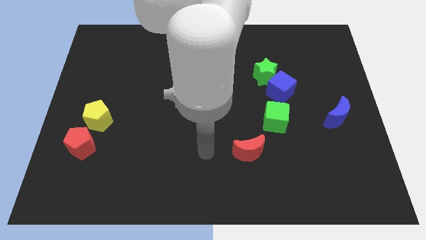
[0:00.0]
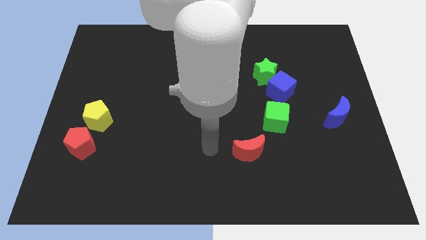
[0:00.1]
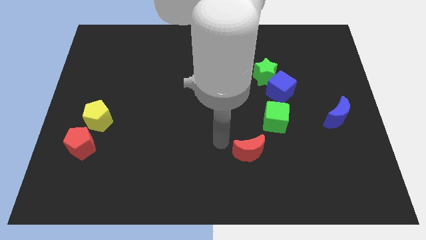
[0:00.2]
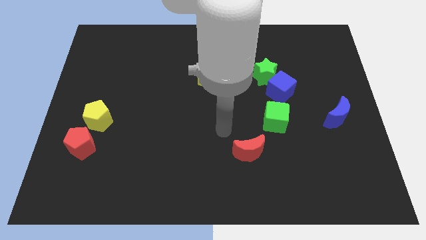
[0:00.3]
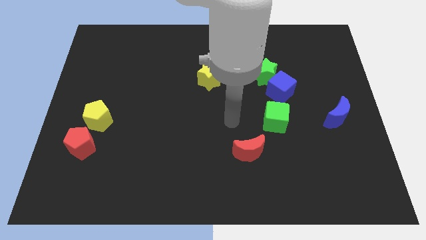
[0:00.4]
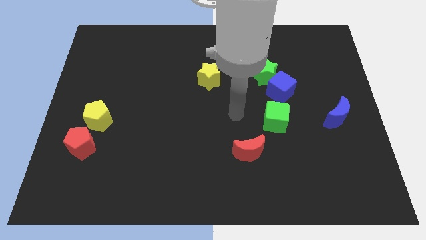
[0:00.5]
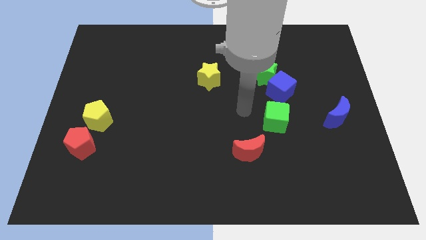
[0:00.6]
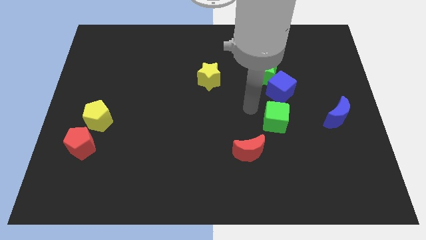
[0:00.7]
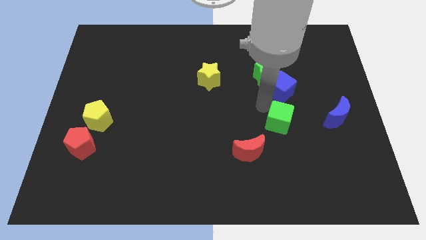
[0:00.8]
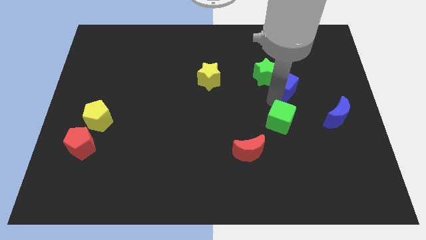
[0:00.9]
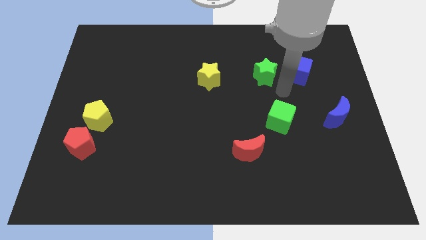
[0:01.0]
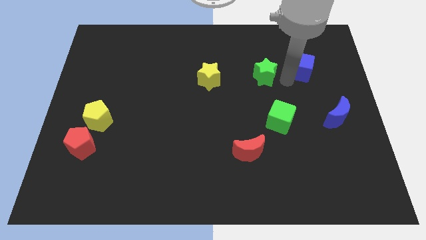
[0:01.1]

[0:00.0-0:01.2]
pull the green star apart from the blue cube

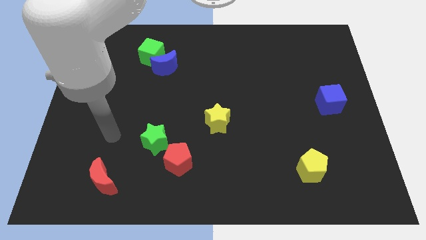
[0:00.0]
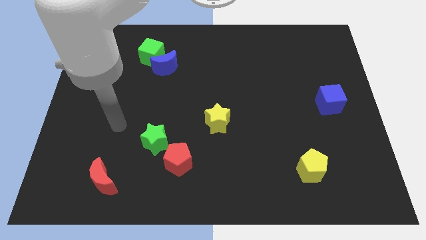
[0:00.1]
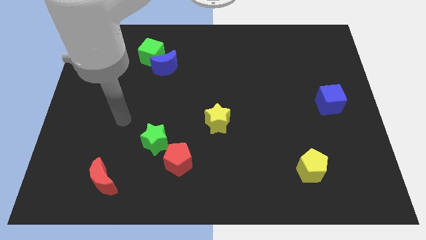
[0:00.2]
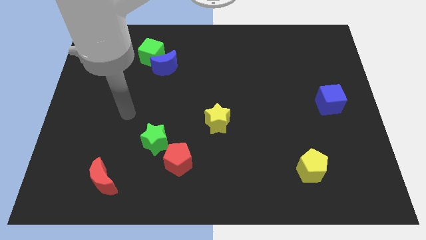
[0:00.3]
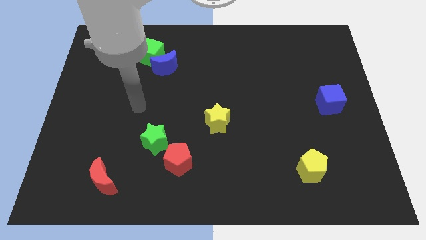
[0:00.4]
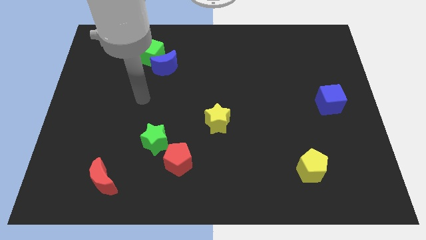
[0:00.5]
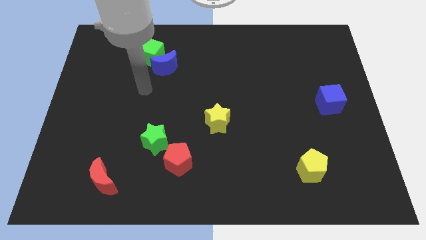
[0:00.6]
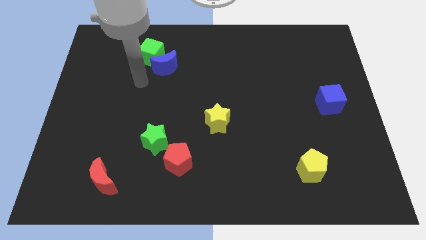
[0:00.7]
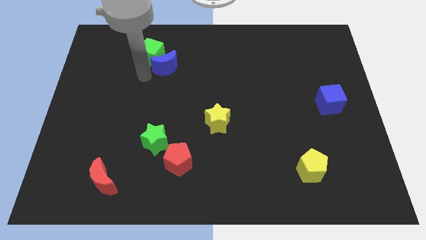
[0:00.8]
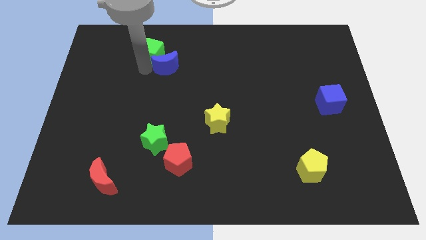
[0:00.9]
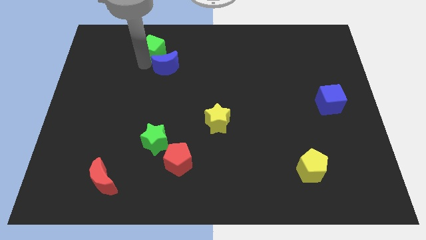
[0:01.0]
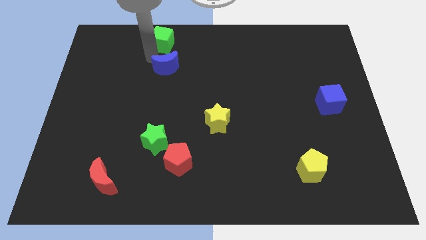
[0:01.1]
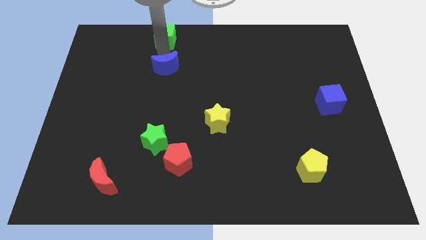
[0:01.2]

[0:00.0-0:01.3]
pull the blue moon apart from the green cube

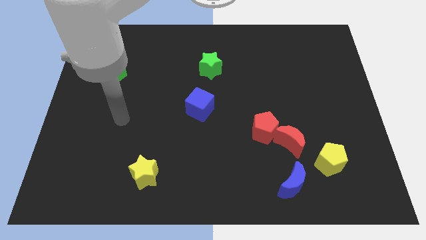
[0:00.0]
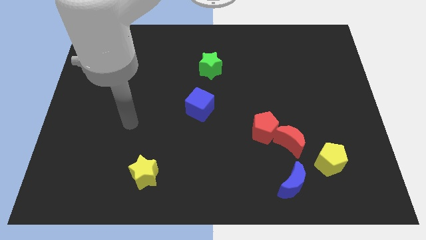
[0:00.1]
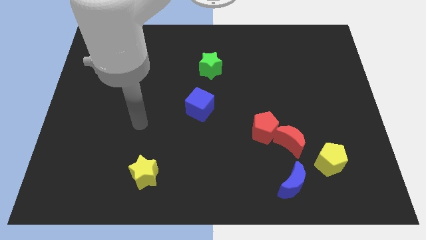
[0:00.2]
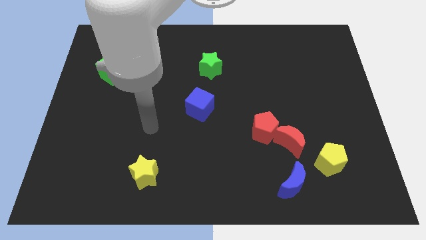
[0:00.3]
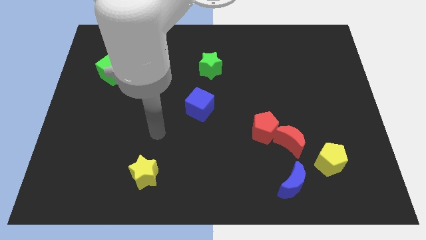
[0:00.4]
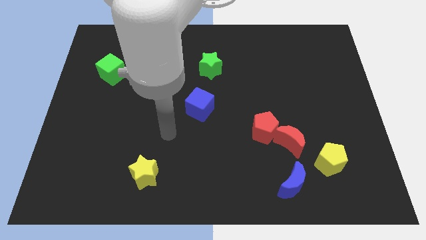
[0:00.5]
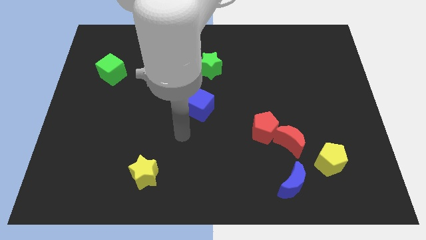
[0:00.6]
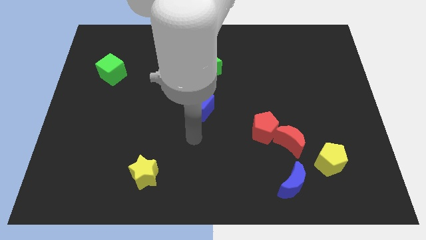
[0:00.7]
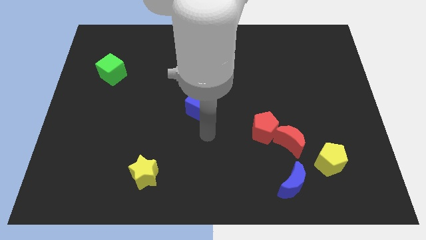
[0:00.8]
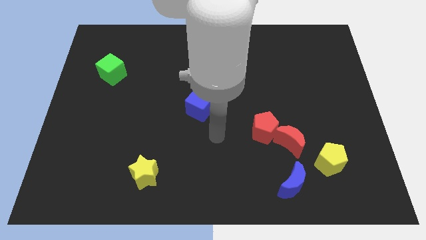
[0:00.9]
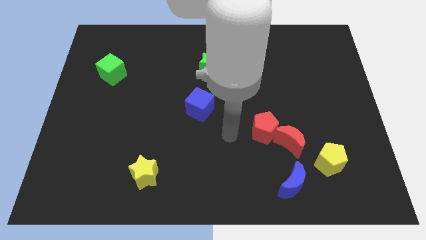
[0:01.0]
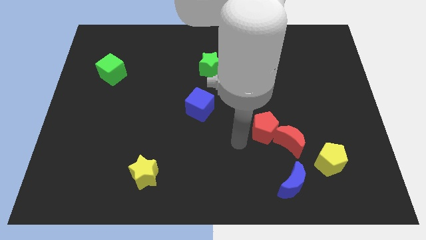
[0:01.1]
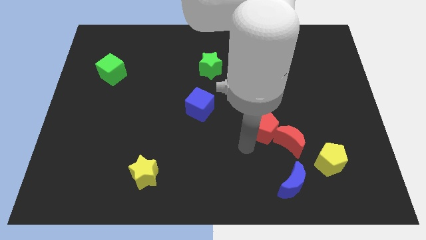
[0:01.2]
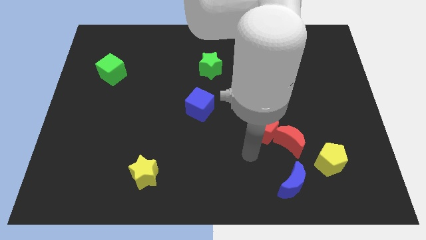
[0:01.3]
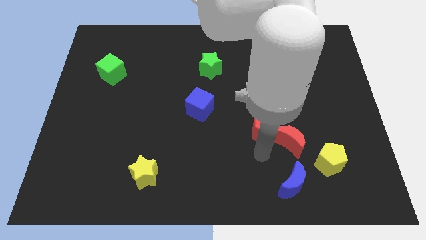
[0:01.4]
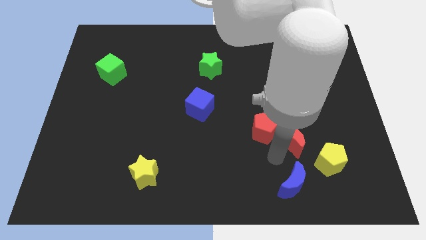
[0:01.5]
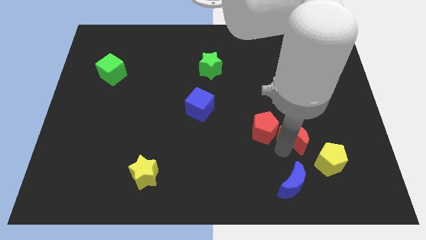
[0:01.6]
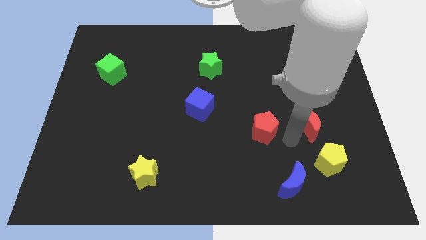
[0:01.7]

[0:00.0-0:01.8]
move the red pentagon away from the red moon

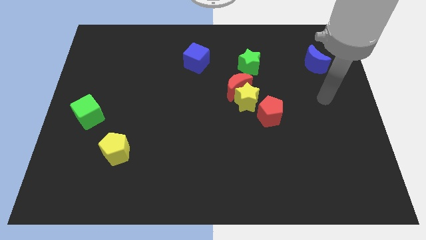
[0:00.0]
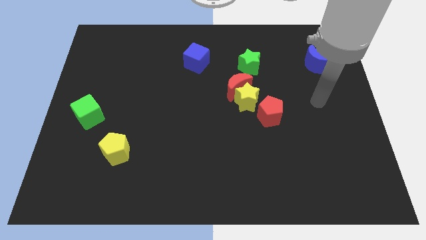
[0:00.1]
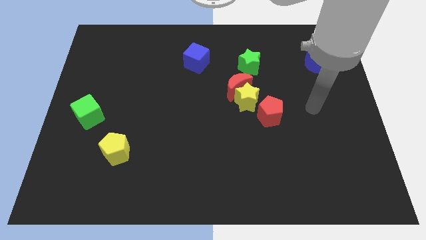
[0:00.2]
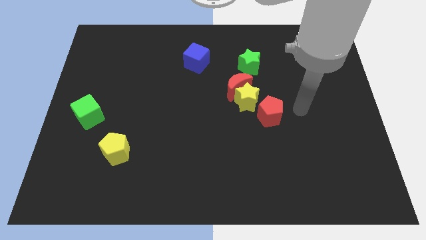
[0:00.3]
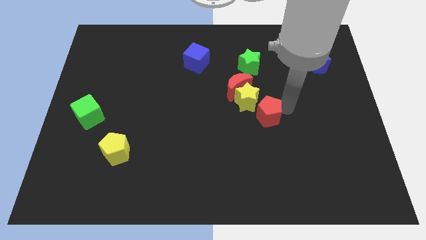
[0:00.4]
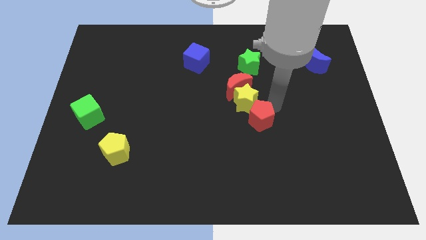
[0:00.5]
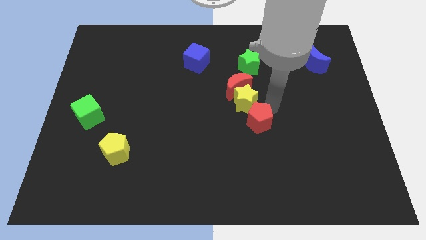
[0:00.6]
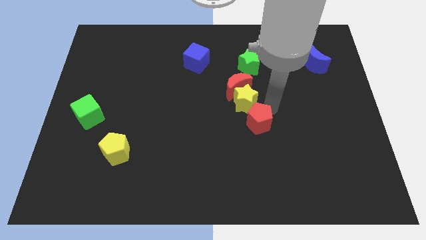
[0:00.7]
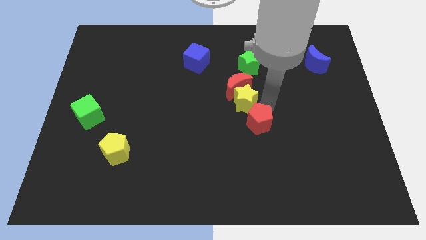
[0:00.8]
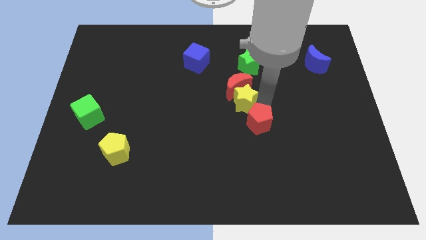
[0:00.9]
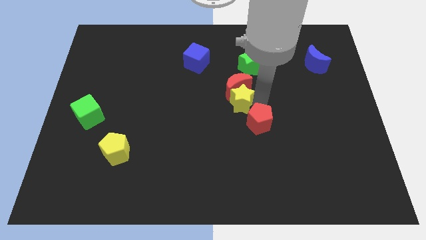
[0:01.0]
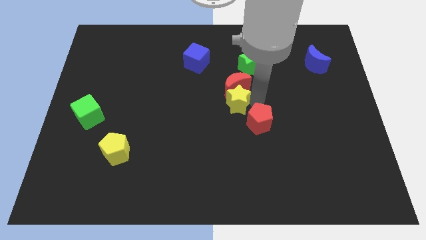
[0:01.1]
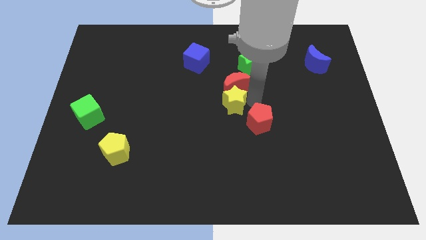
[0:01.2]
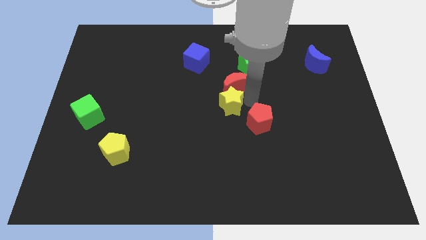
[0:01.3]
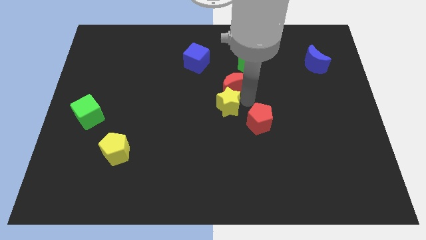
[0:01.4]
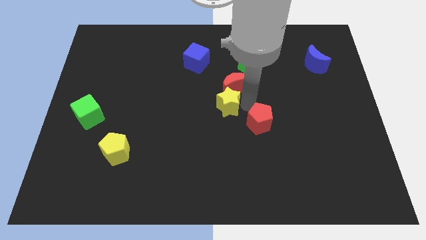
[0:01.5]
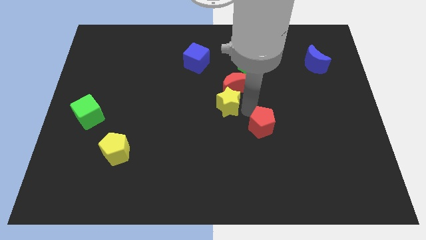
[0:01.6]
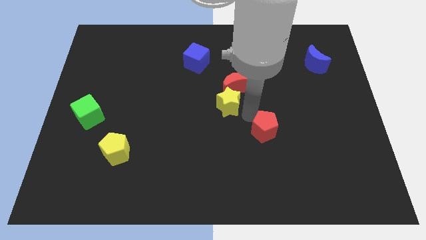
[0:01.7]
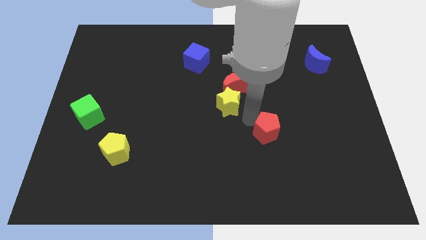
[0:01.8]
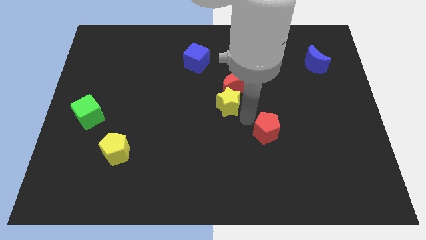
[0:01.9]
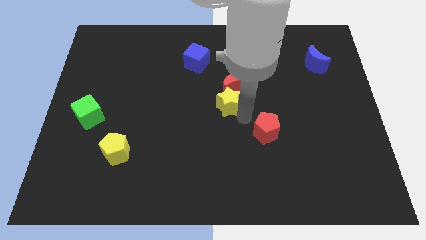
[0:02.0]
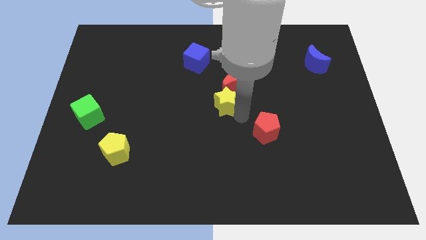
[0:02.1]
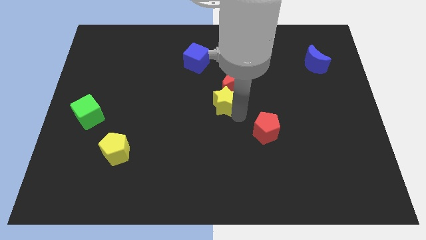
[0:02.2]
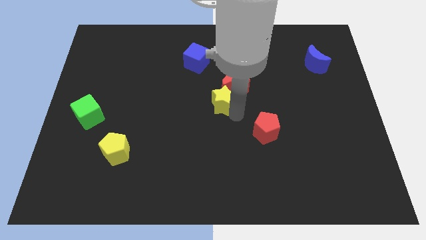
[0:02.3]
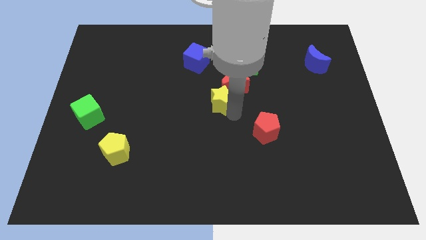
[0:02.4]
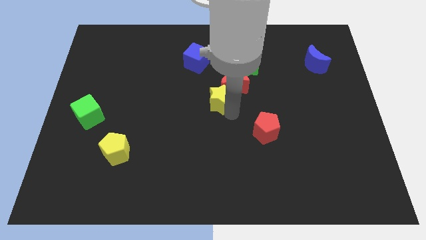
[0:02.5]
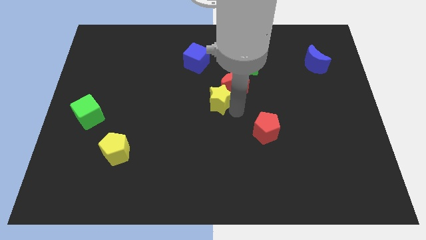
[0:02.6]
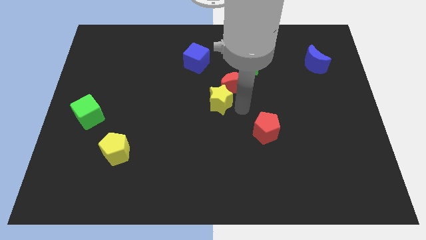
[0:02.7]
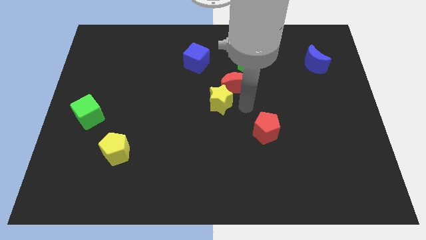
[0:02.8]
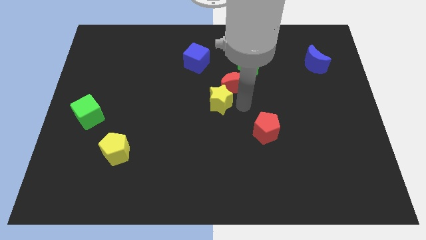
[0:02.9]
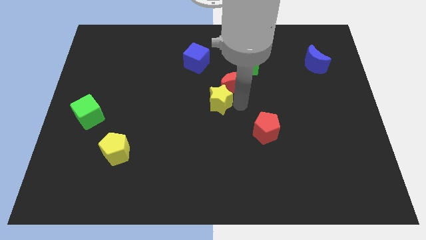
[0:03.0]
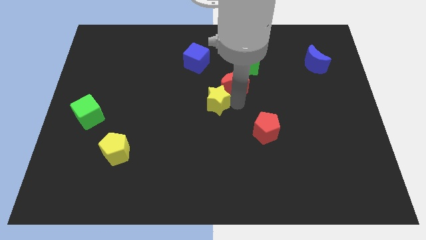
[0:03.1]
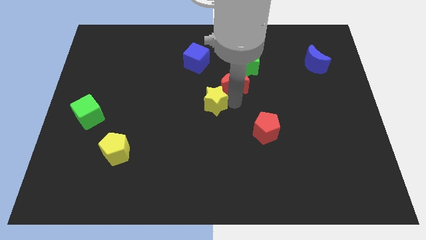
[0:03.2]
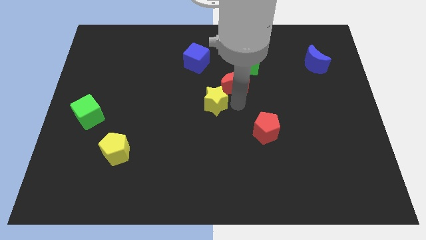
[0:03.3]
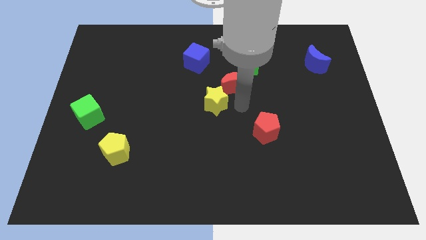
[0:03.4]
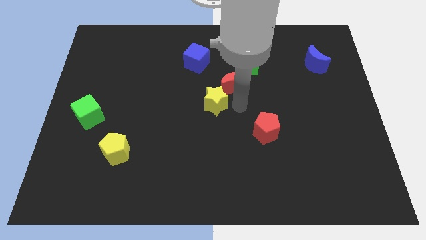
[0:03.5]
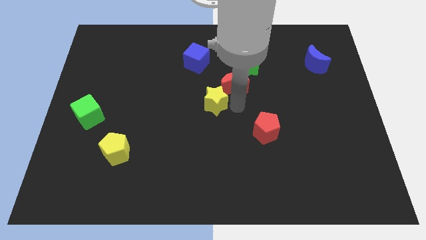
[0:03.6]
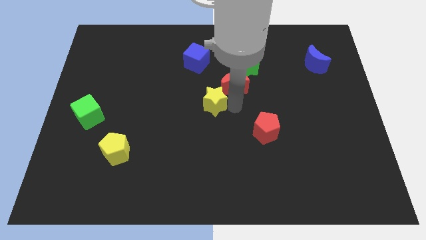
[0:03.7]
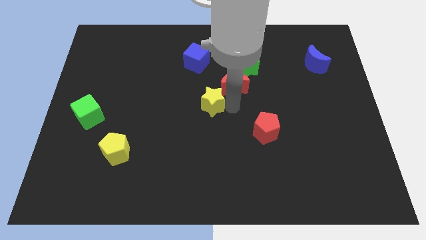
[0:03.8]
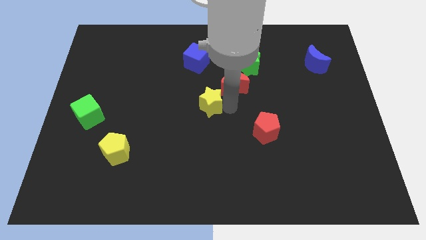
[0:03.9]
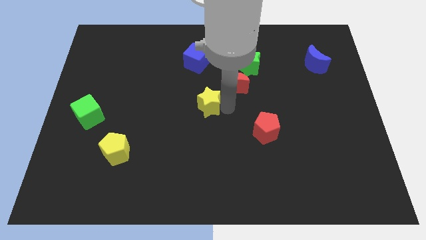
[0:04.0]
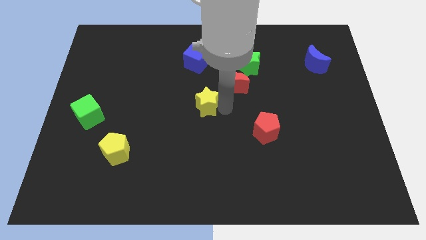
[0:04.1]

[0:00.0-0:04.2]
separate the yellow star from the red moon and red pentagon

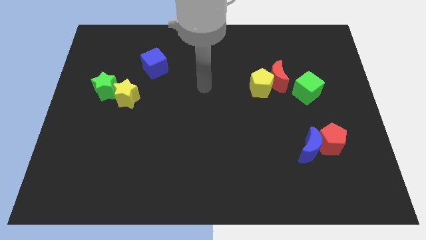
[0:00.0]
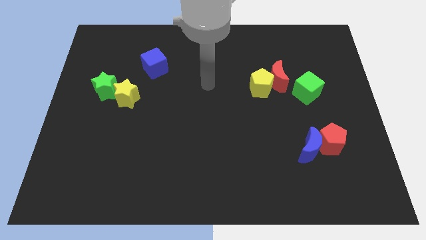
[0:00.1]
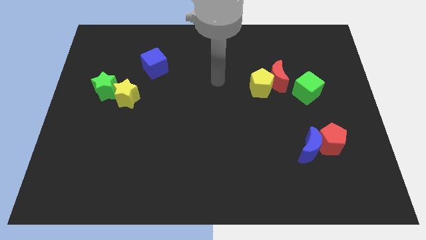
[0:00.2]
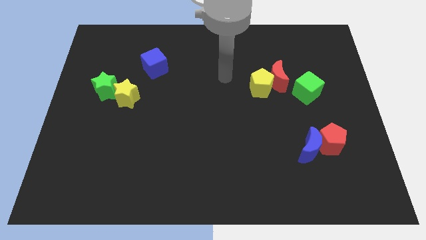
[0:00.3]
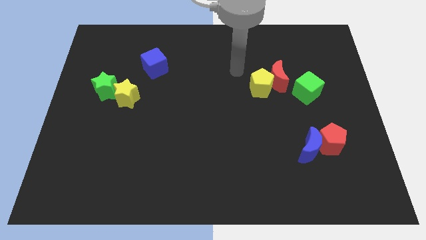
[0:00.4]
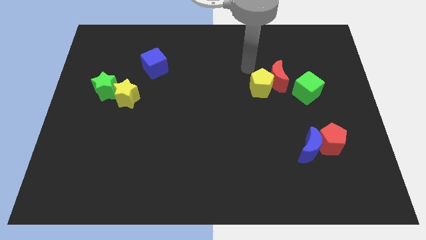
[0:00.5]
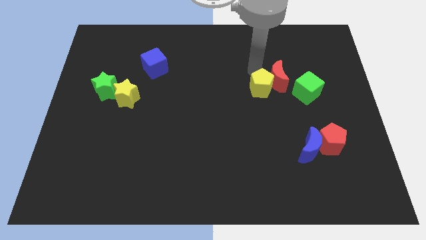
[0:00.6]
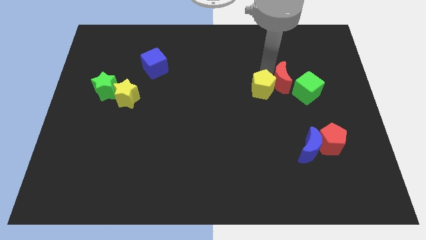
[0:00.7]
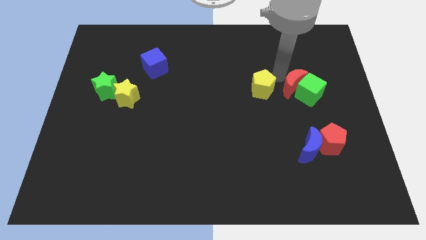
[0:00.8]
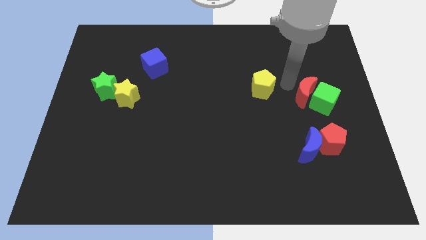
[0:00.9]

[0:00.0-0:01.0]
separate the yellow pentagon from the red moon

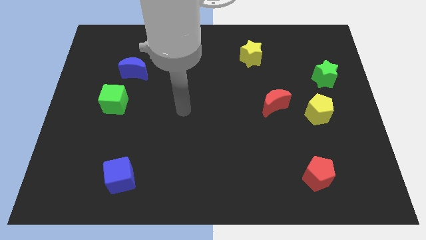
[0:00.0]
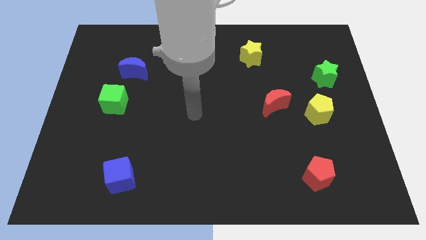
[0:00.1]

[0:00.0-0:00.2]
pull the red moon apart from the yellow pentagon
